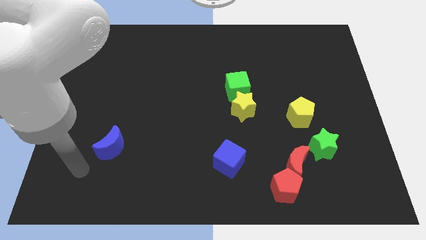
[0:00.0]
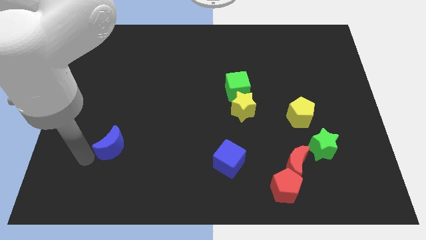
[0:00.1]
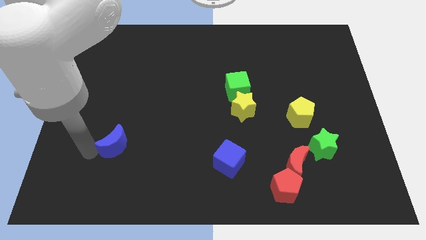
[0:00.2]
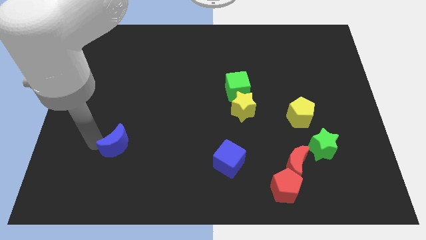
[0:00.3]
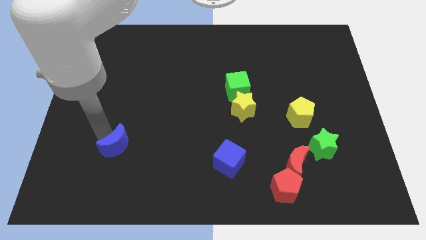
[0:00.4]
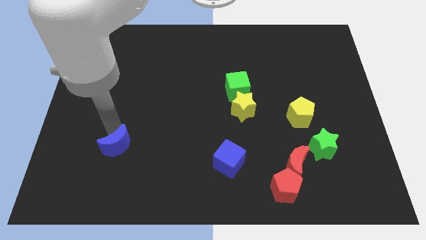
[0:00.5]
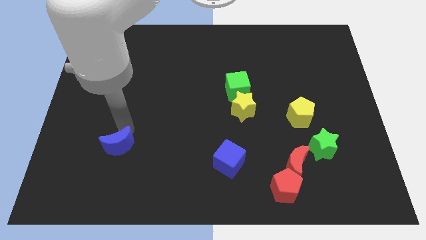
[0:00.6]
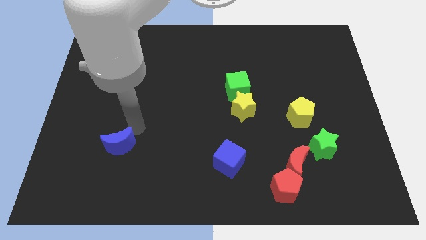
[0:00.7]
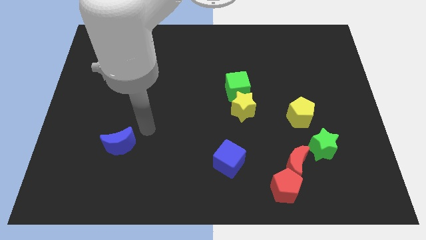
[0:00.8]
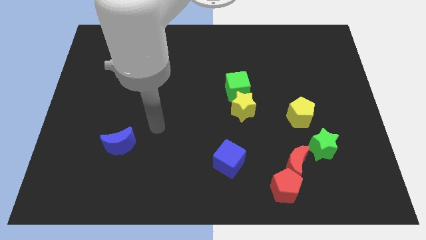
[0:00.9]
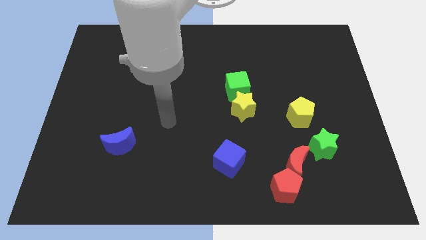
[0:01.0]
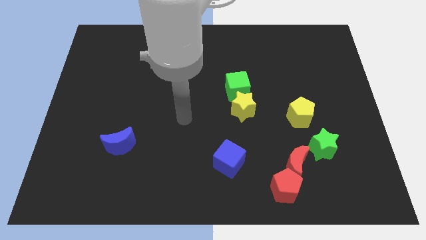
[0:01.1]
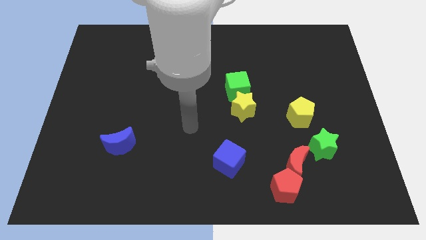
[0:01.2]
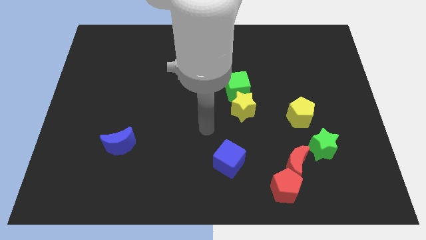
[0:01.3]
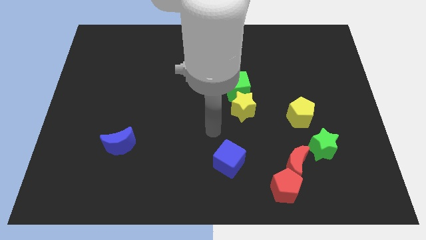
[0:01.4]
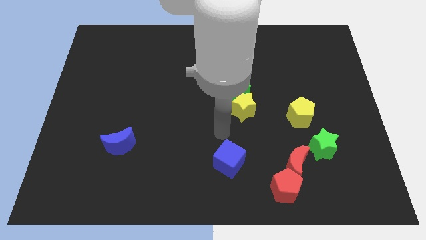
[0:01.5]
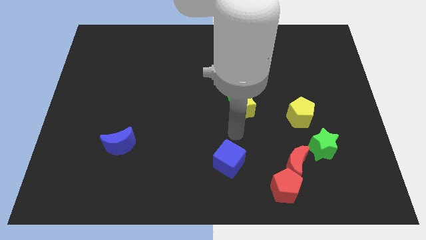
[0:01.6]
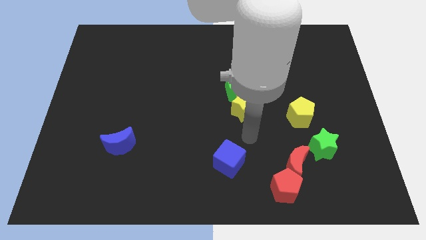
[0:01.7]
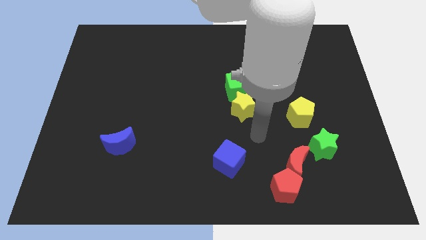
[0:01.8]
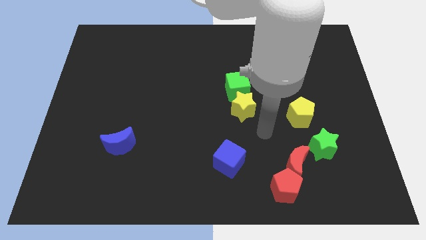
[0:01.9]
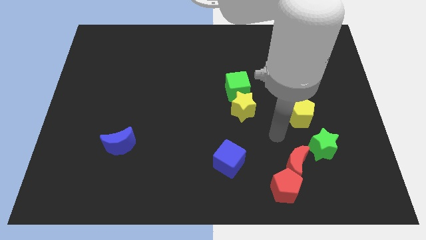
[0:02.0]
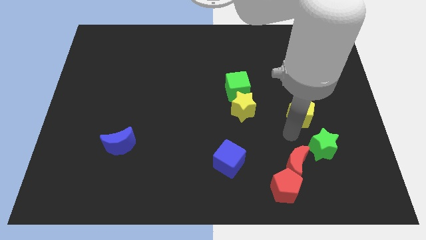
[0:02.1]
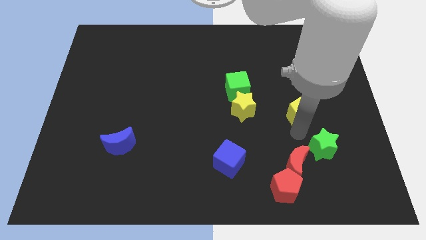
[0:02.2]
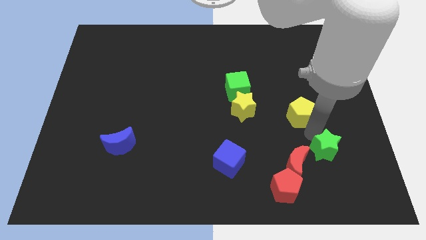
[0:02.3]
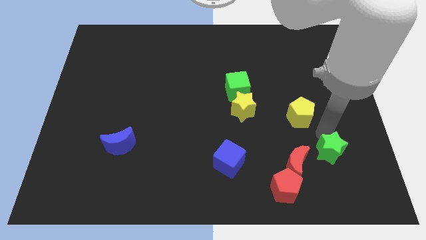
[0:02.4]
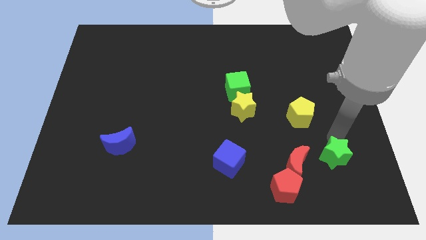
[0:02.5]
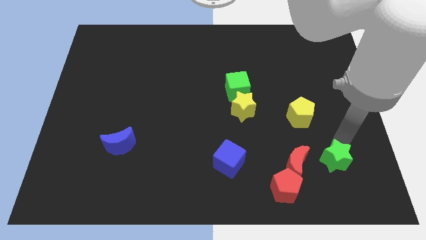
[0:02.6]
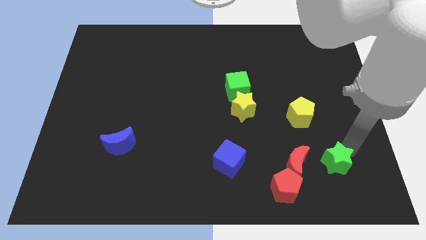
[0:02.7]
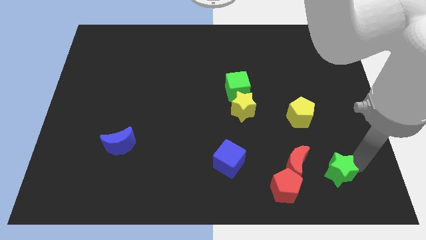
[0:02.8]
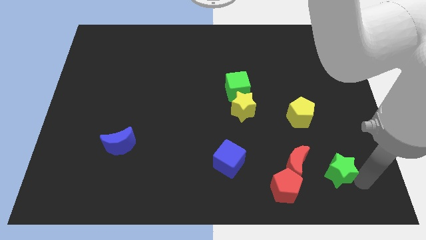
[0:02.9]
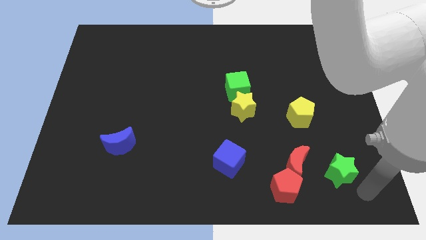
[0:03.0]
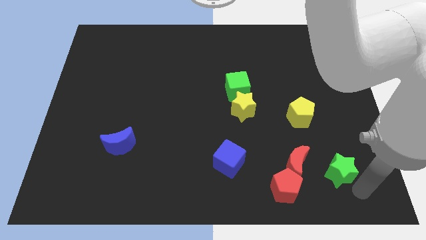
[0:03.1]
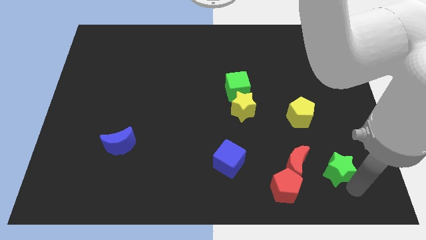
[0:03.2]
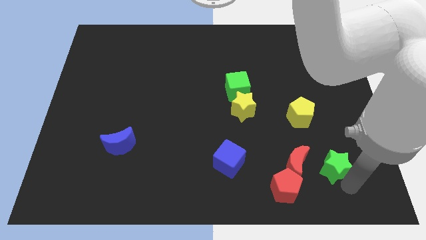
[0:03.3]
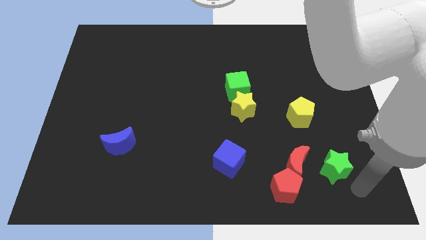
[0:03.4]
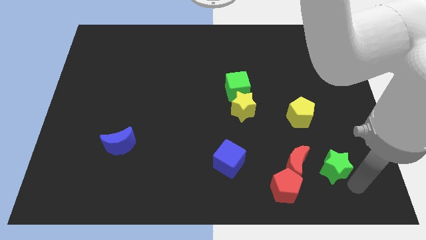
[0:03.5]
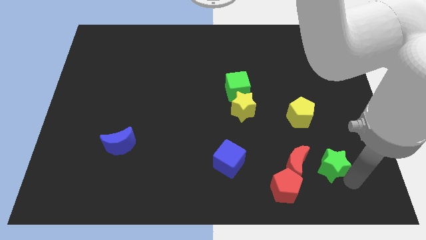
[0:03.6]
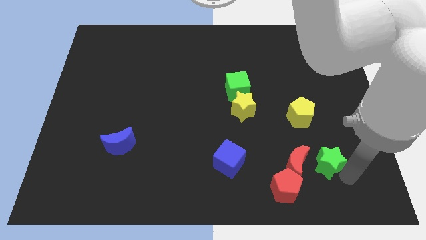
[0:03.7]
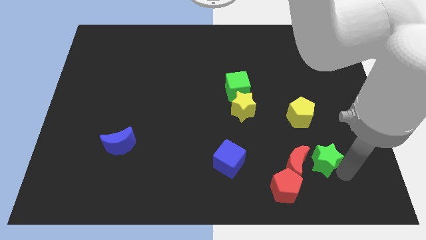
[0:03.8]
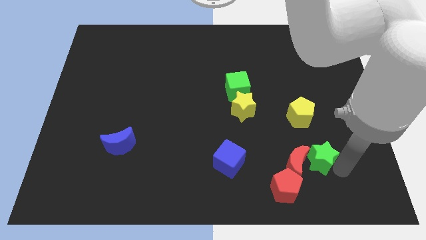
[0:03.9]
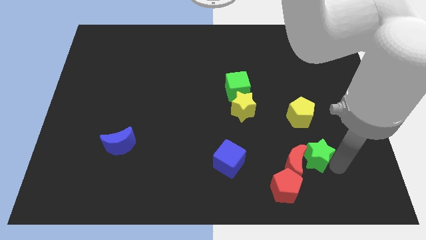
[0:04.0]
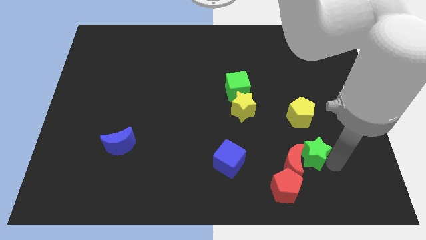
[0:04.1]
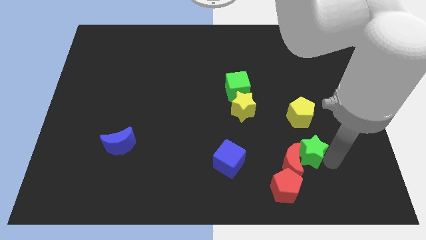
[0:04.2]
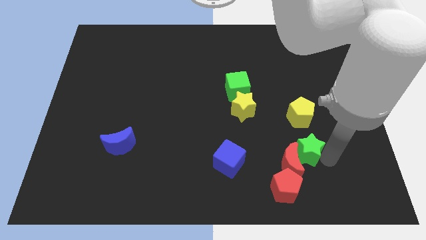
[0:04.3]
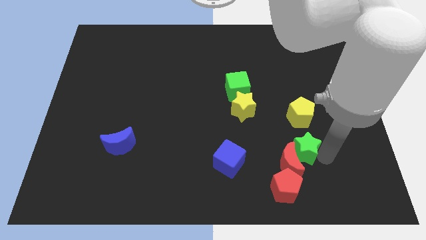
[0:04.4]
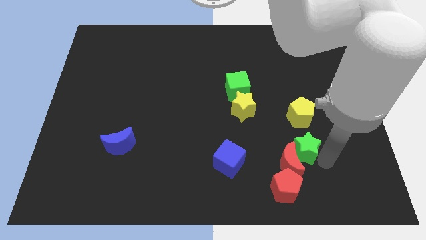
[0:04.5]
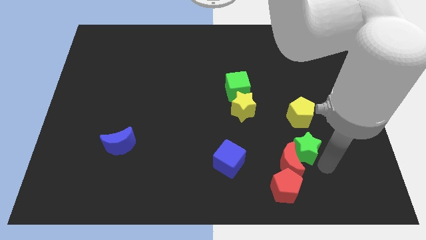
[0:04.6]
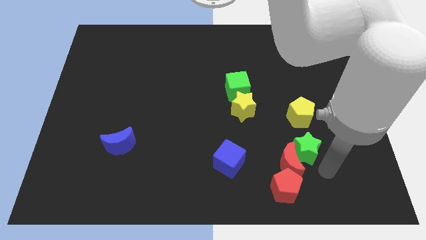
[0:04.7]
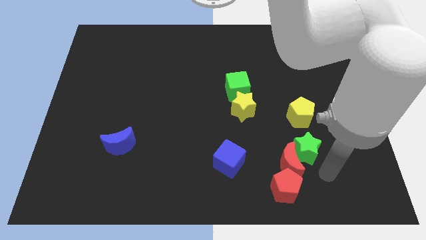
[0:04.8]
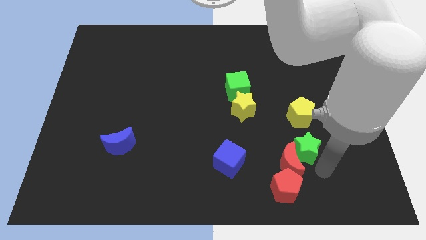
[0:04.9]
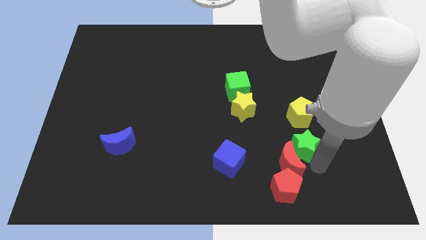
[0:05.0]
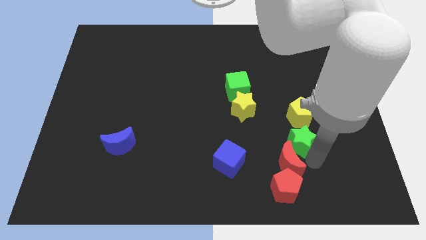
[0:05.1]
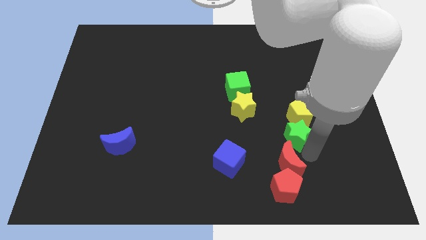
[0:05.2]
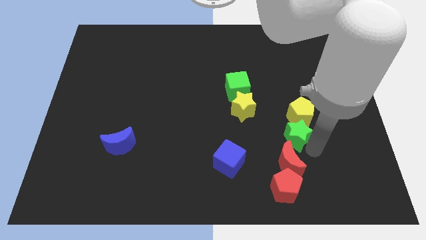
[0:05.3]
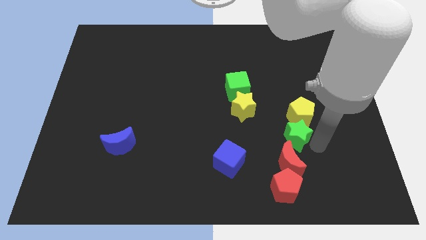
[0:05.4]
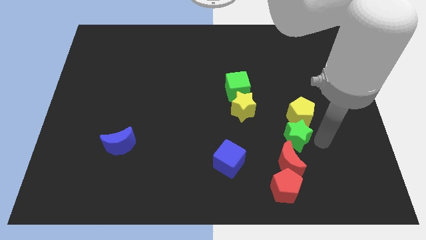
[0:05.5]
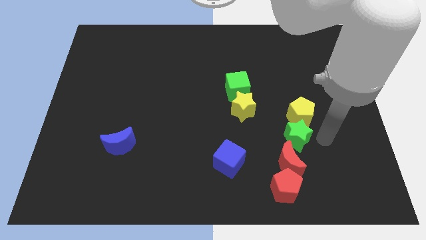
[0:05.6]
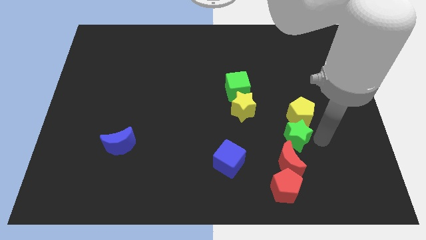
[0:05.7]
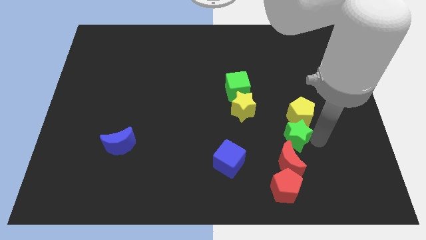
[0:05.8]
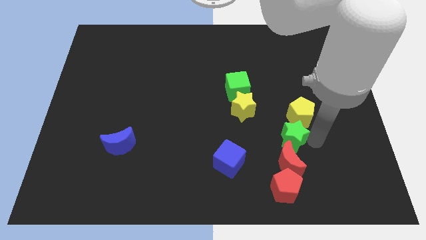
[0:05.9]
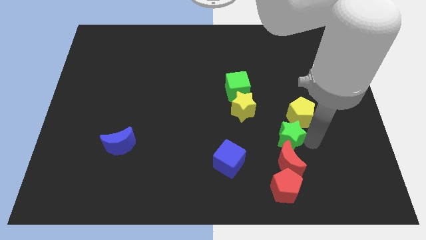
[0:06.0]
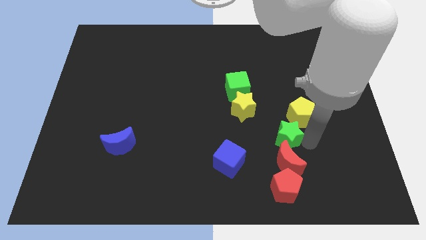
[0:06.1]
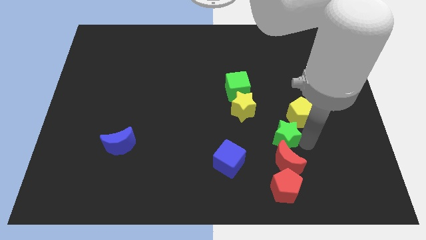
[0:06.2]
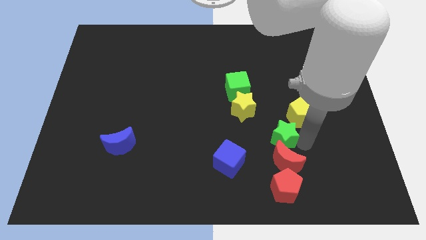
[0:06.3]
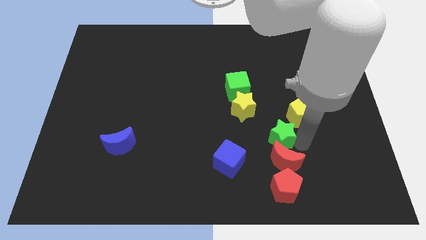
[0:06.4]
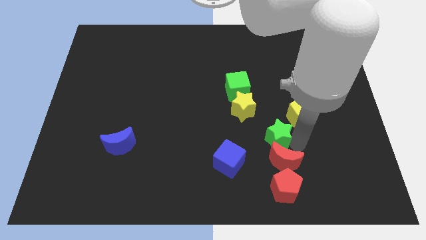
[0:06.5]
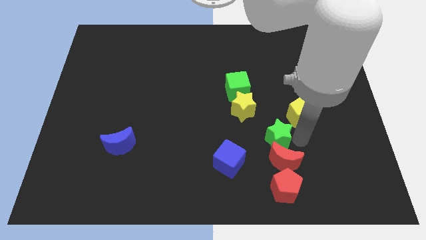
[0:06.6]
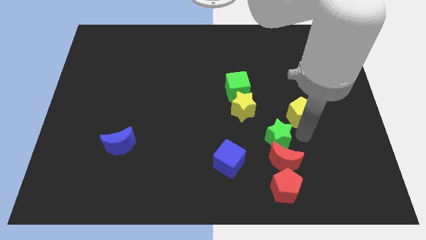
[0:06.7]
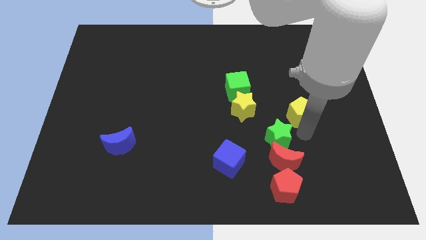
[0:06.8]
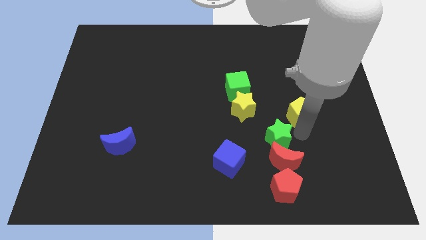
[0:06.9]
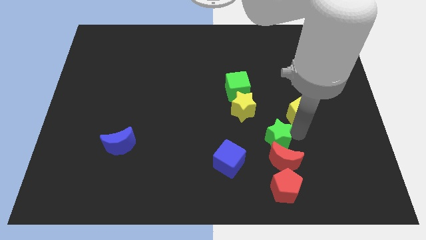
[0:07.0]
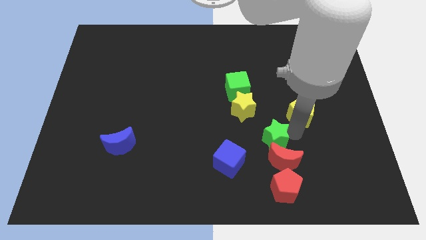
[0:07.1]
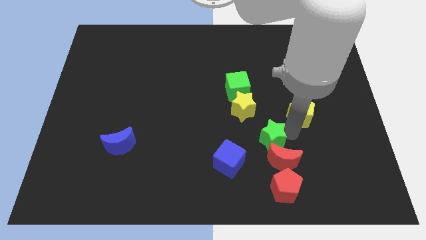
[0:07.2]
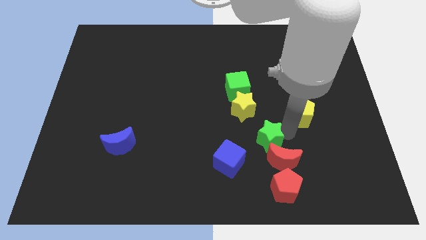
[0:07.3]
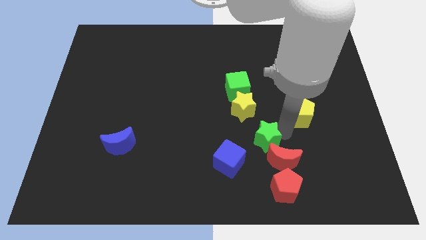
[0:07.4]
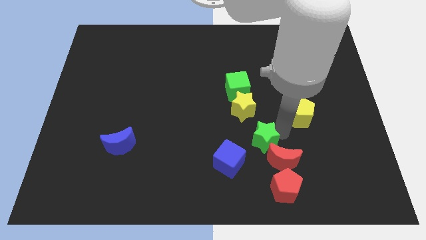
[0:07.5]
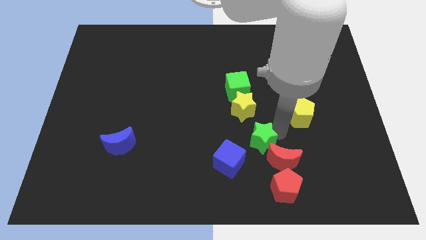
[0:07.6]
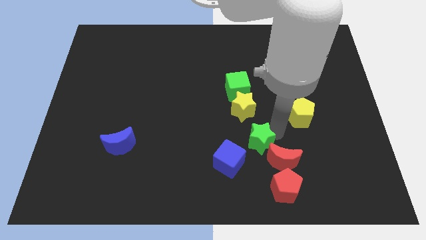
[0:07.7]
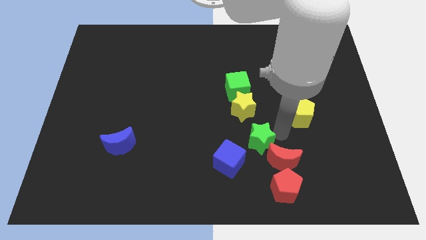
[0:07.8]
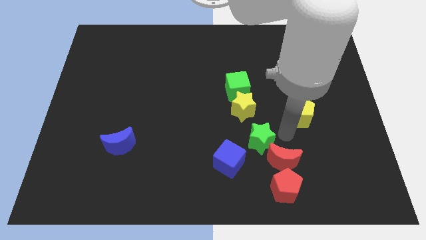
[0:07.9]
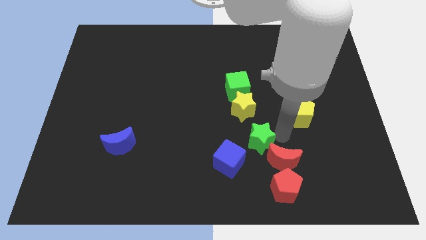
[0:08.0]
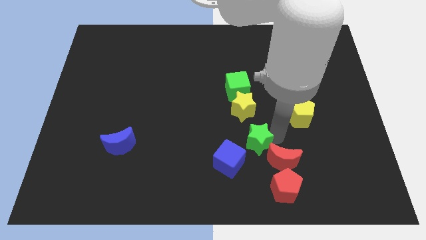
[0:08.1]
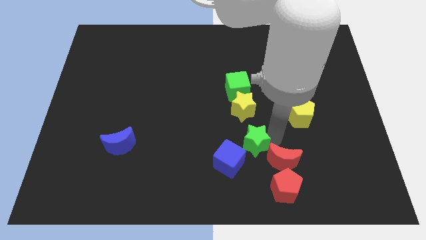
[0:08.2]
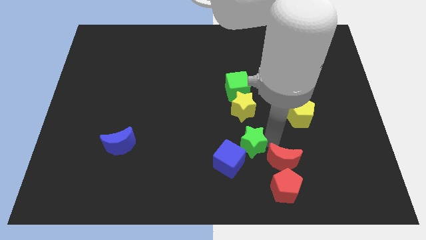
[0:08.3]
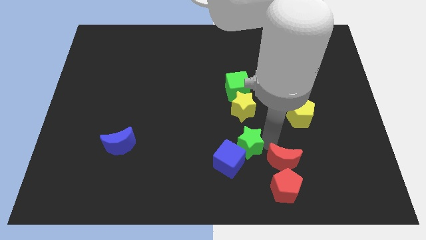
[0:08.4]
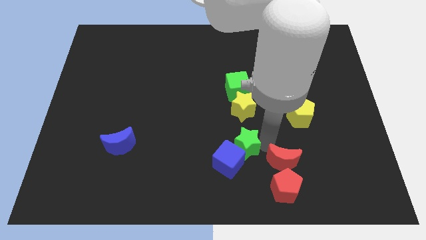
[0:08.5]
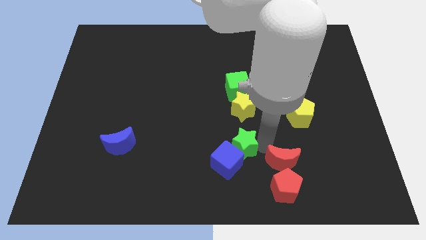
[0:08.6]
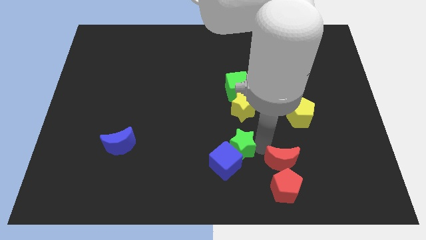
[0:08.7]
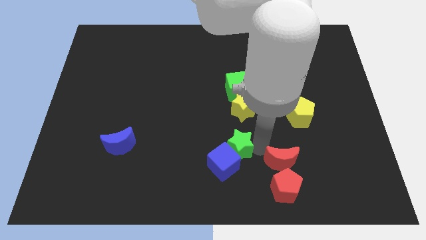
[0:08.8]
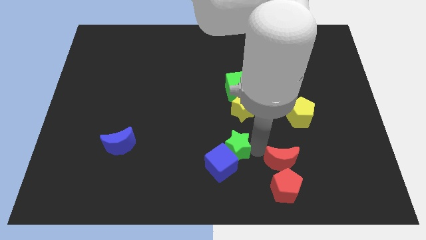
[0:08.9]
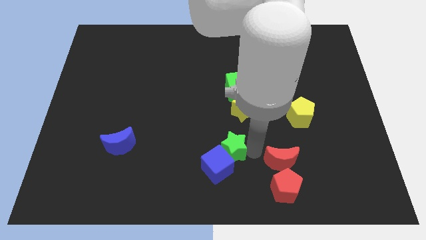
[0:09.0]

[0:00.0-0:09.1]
move the green star left
